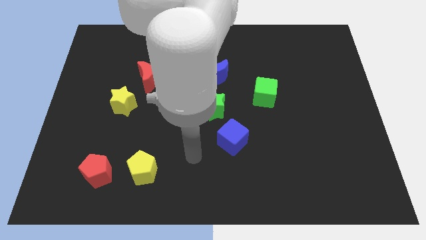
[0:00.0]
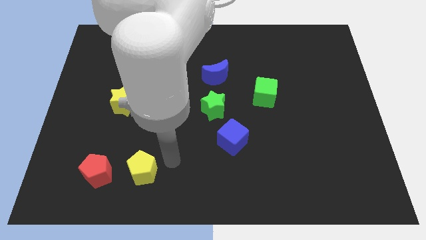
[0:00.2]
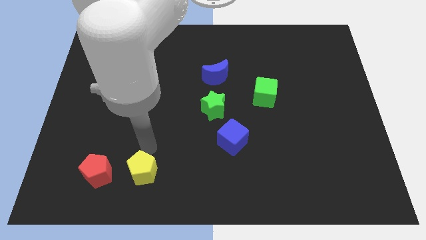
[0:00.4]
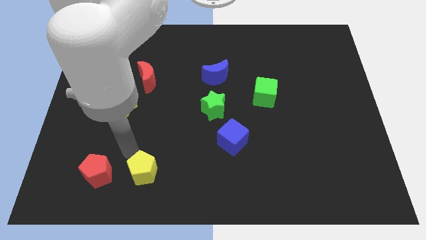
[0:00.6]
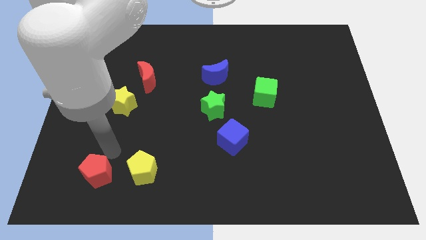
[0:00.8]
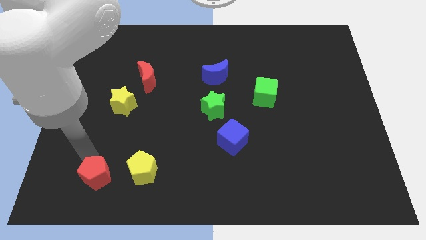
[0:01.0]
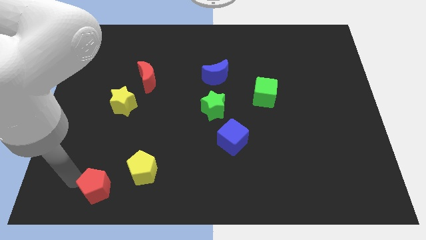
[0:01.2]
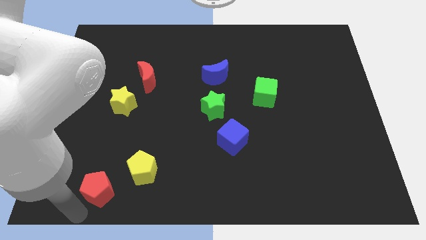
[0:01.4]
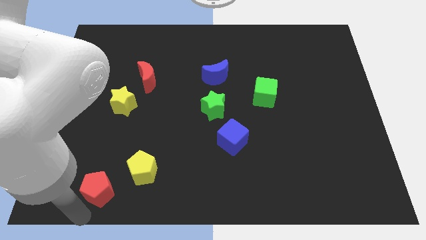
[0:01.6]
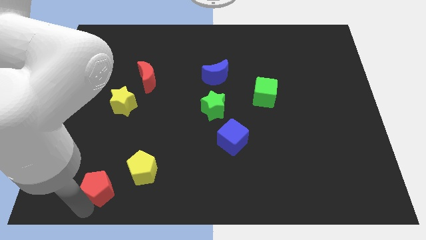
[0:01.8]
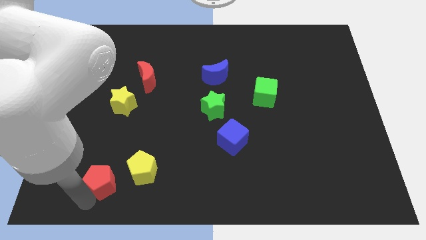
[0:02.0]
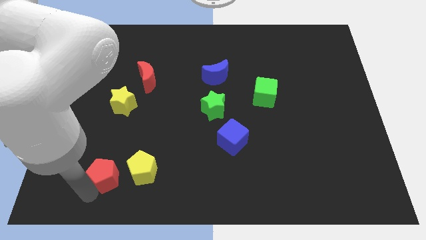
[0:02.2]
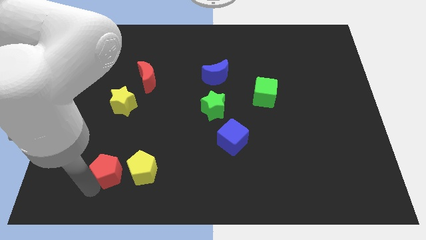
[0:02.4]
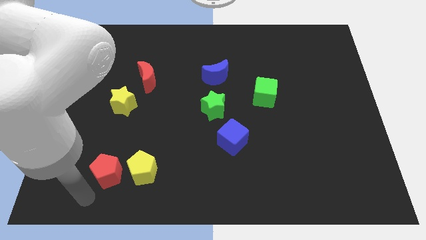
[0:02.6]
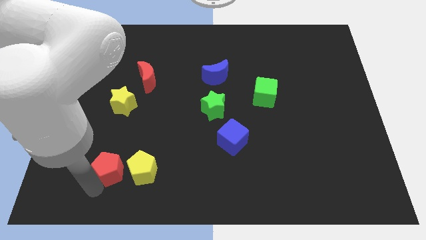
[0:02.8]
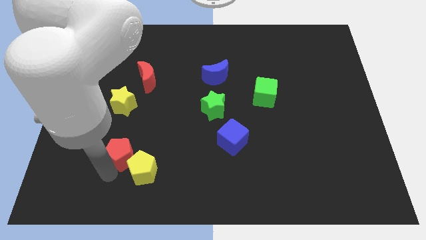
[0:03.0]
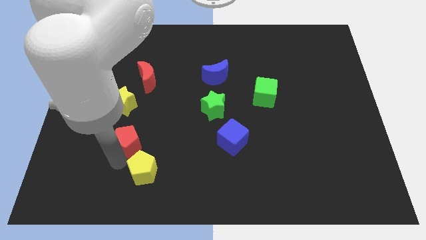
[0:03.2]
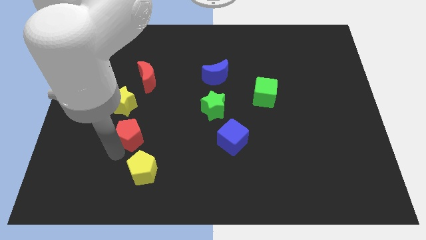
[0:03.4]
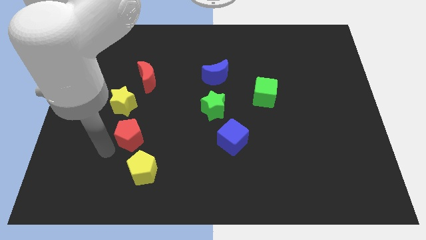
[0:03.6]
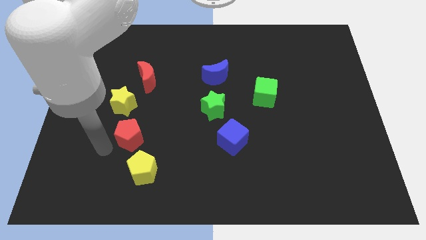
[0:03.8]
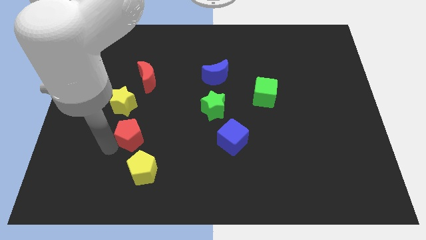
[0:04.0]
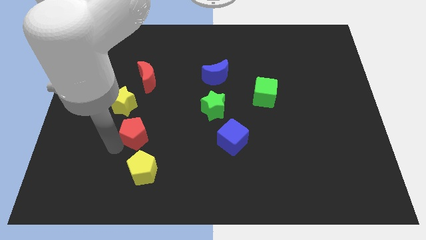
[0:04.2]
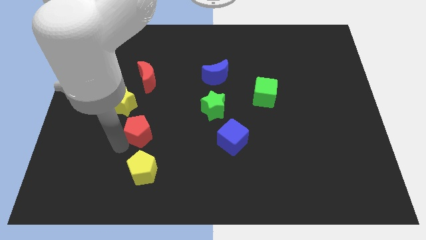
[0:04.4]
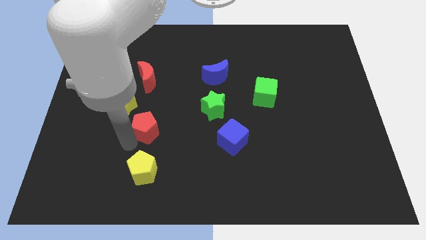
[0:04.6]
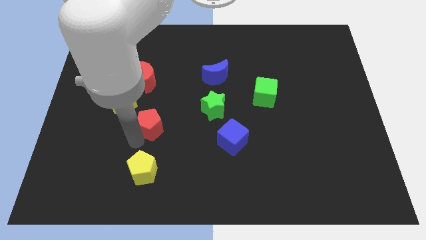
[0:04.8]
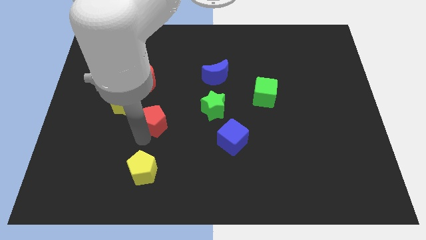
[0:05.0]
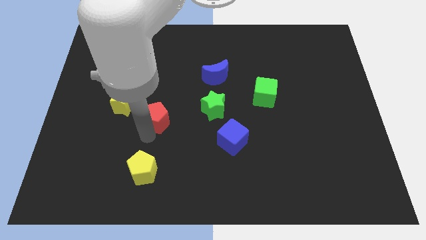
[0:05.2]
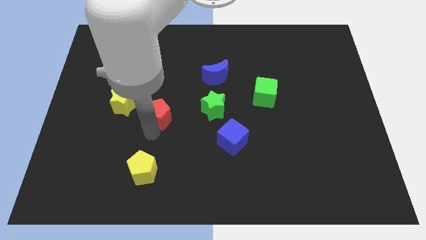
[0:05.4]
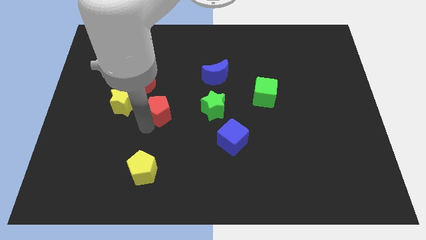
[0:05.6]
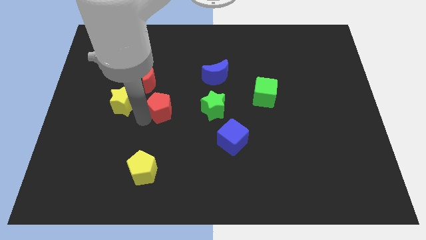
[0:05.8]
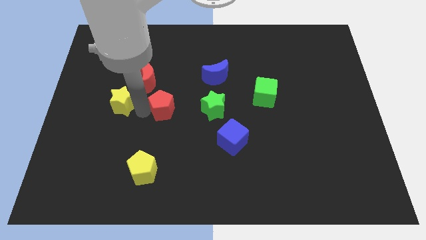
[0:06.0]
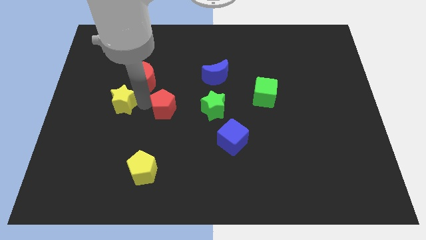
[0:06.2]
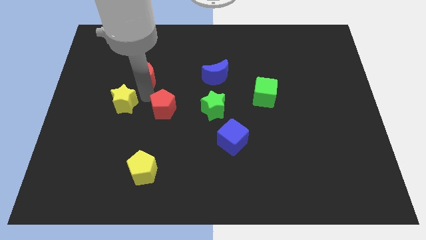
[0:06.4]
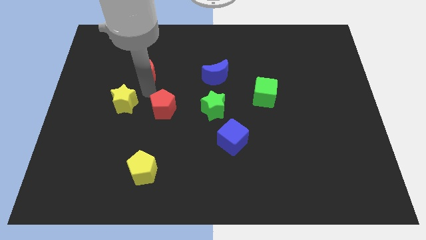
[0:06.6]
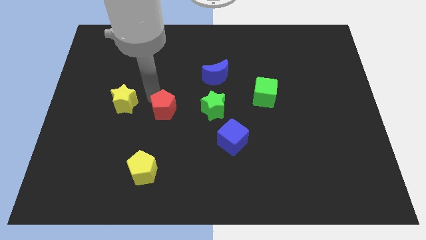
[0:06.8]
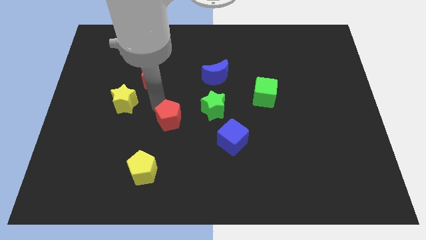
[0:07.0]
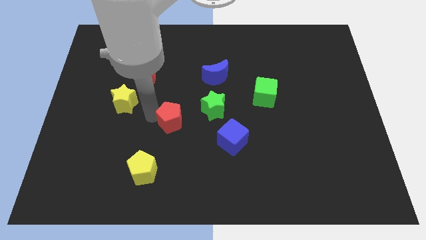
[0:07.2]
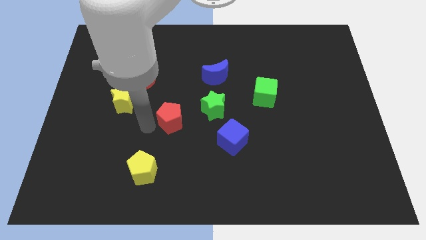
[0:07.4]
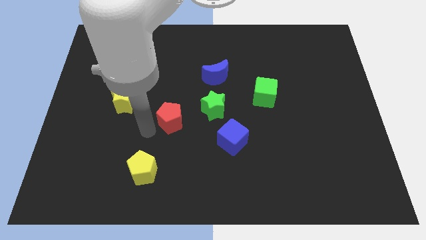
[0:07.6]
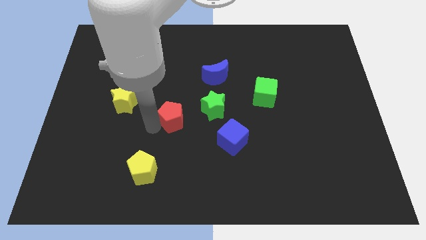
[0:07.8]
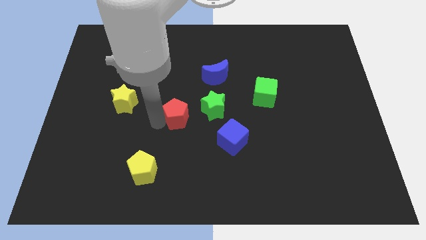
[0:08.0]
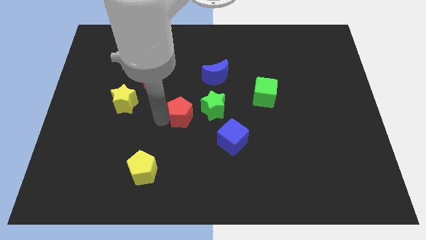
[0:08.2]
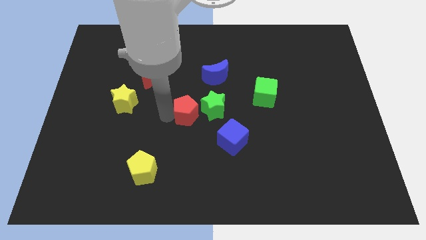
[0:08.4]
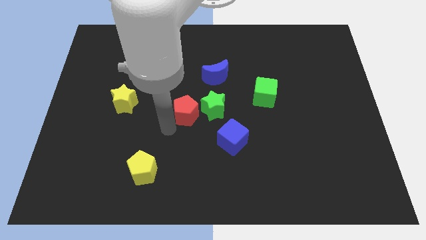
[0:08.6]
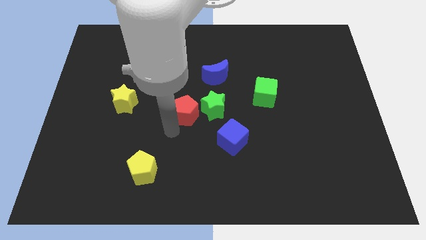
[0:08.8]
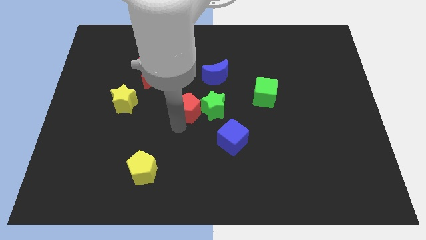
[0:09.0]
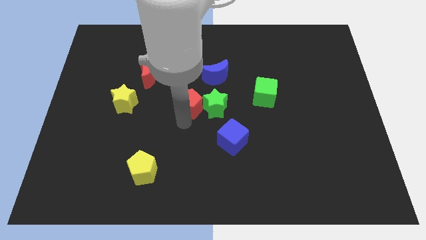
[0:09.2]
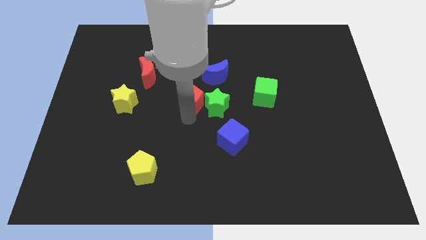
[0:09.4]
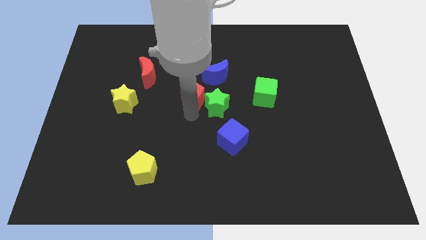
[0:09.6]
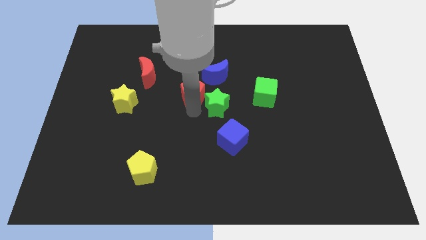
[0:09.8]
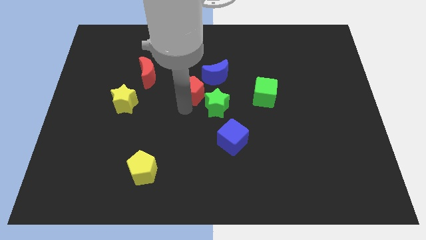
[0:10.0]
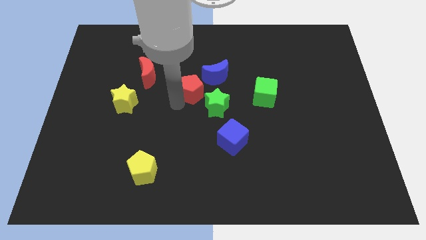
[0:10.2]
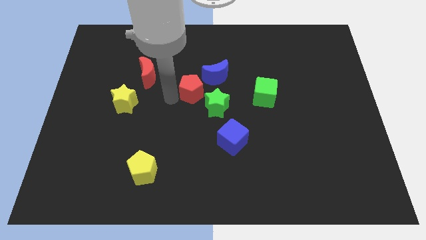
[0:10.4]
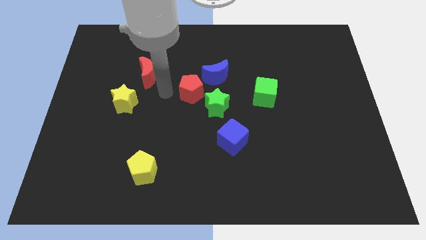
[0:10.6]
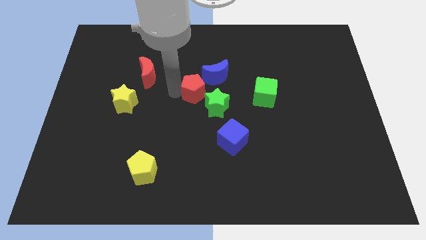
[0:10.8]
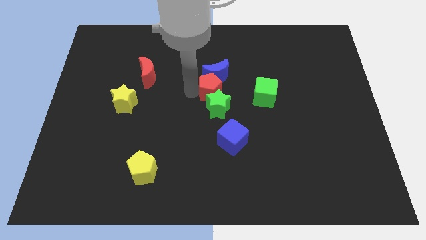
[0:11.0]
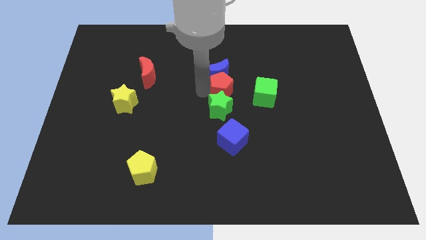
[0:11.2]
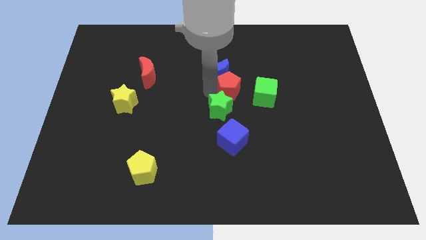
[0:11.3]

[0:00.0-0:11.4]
push the red pentagon to the top left side of the green cube

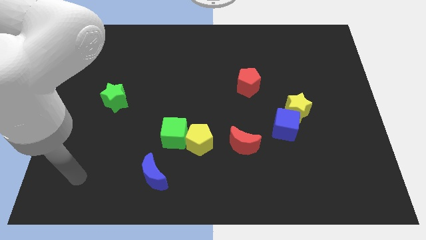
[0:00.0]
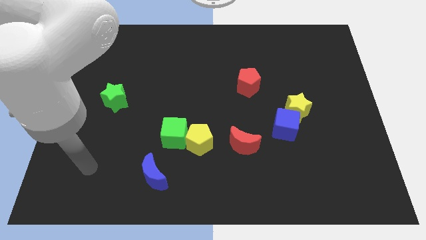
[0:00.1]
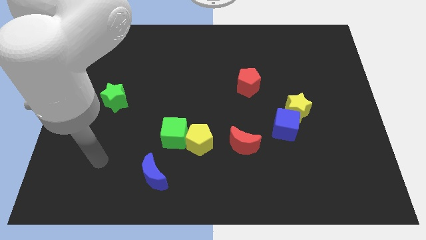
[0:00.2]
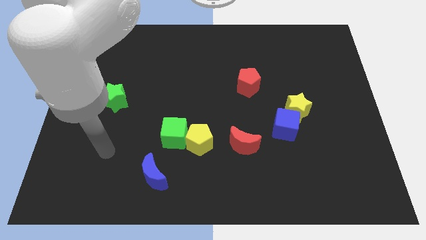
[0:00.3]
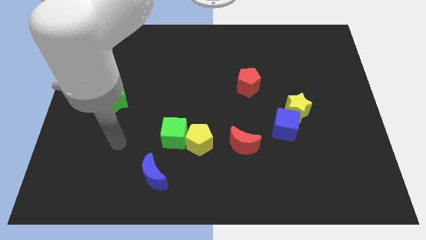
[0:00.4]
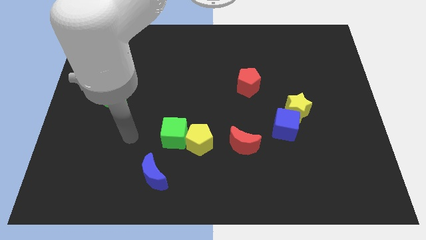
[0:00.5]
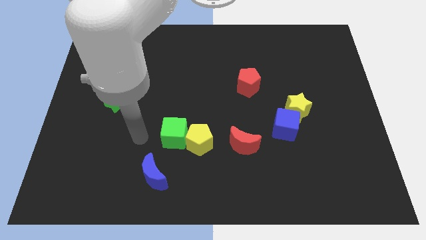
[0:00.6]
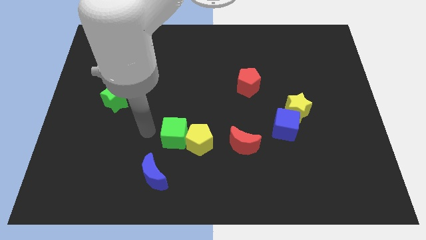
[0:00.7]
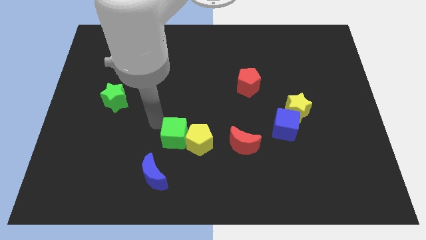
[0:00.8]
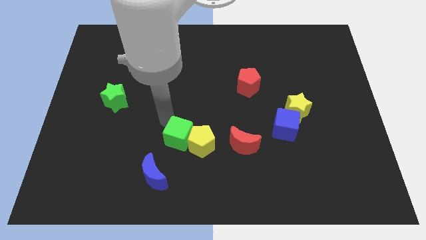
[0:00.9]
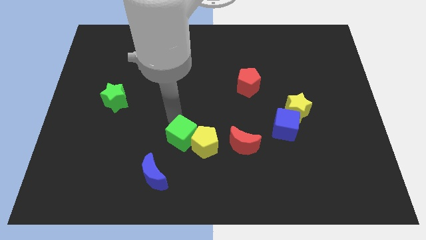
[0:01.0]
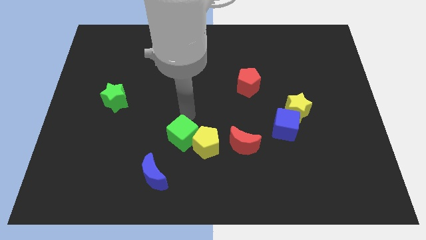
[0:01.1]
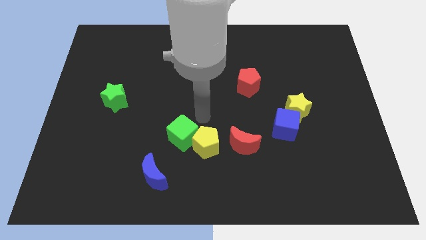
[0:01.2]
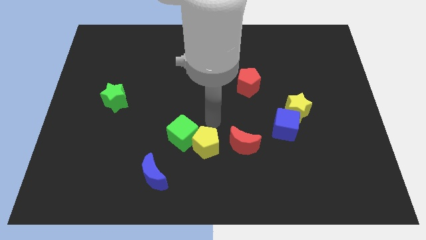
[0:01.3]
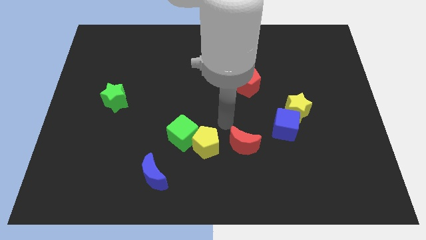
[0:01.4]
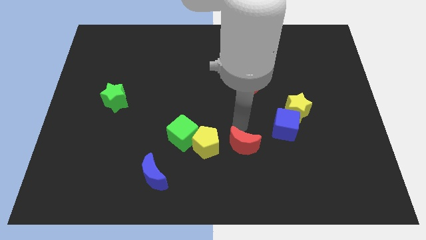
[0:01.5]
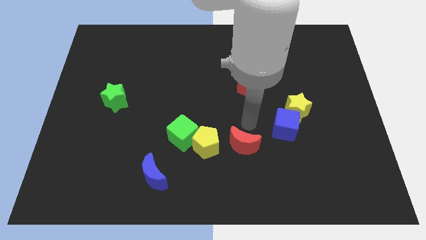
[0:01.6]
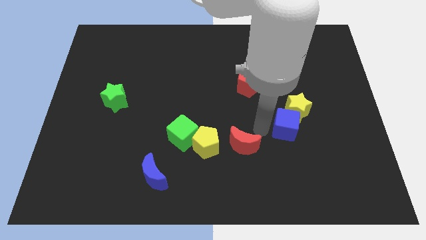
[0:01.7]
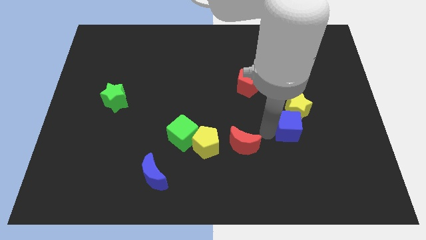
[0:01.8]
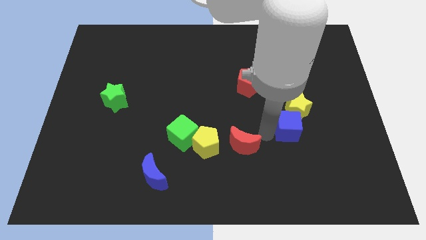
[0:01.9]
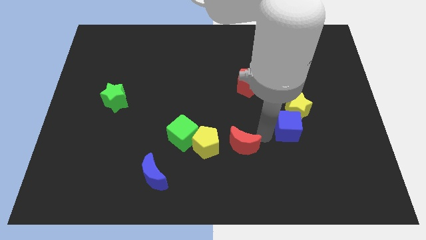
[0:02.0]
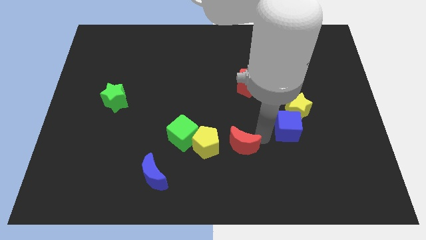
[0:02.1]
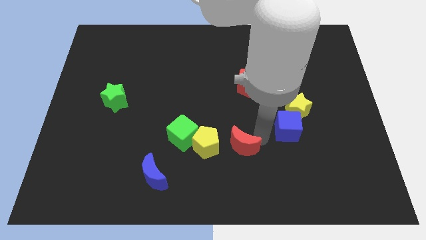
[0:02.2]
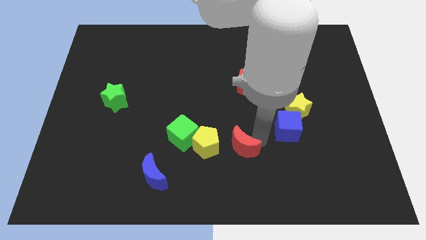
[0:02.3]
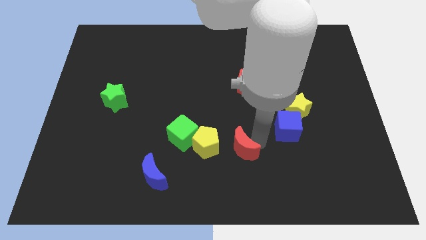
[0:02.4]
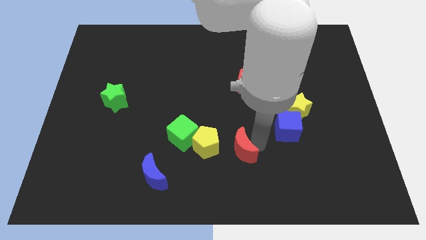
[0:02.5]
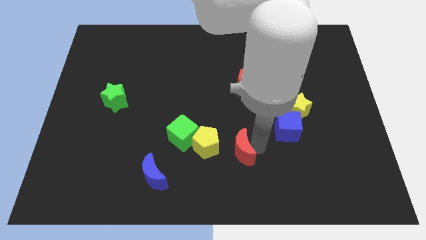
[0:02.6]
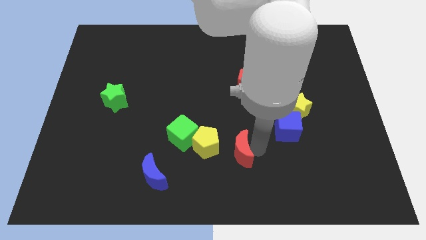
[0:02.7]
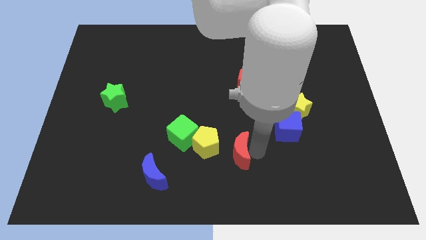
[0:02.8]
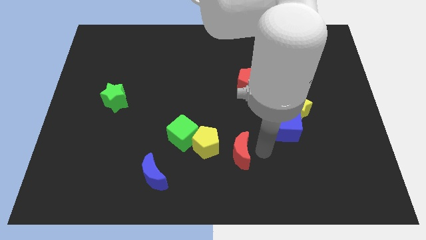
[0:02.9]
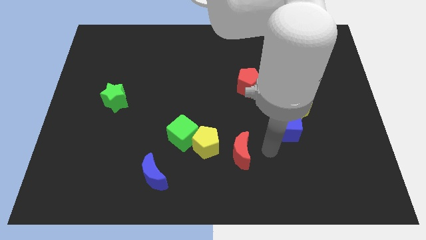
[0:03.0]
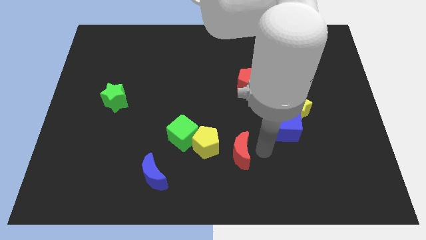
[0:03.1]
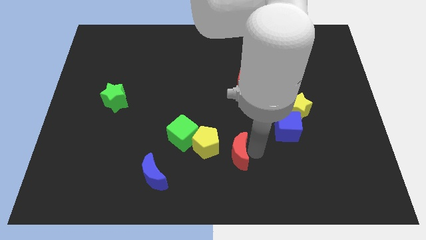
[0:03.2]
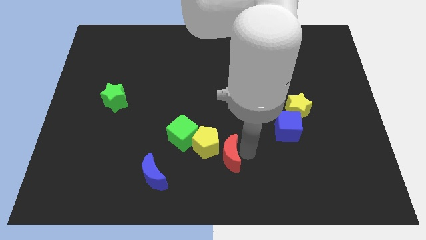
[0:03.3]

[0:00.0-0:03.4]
move the red moon diagonally down and to the right of the green cube
